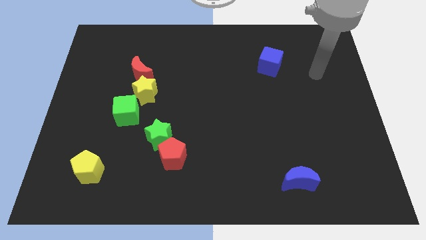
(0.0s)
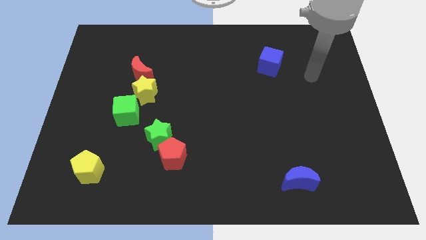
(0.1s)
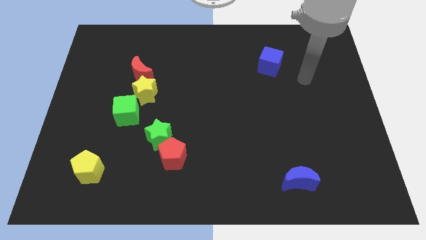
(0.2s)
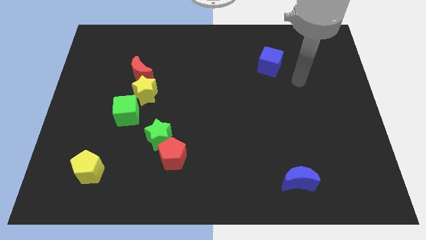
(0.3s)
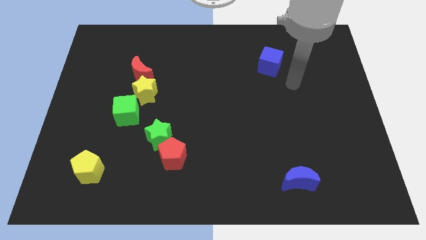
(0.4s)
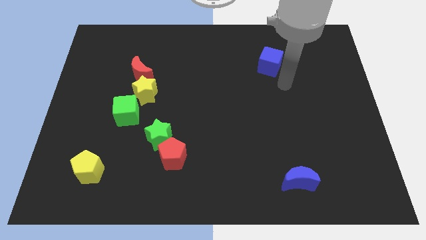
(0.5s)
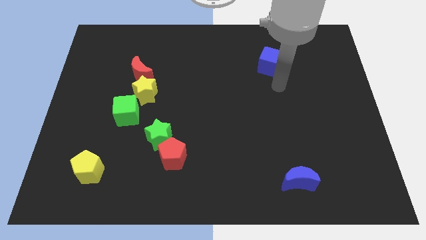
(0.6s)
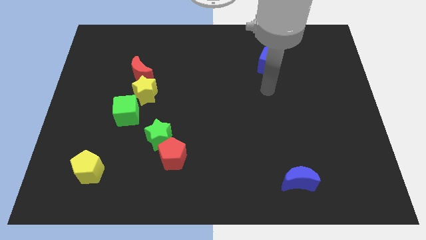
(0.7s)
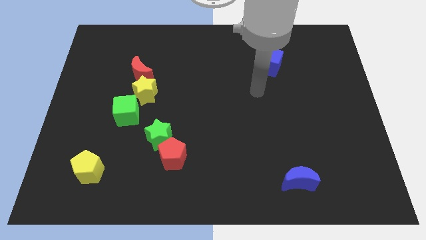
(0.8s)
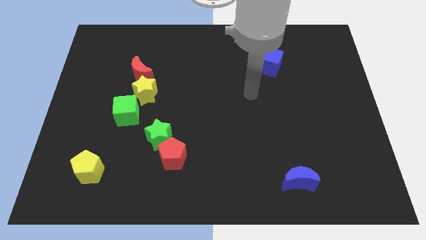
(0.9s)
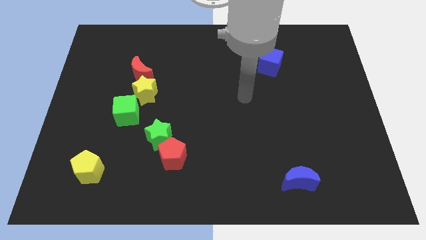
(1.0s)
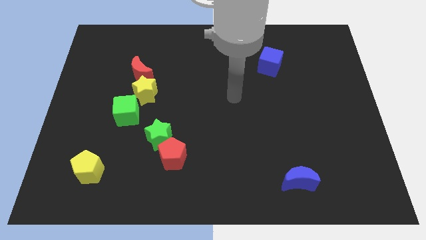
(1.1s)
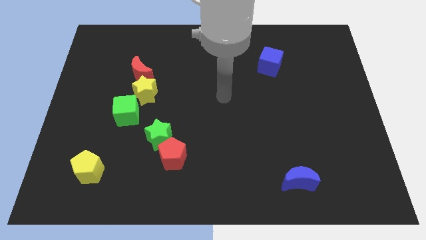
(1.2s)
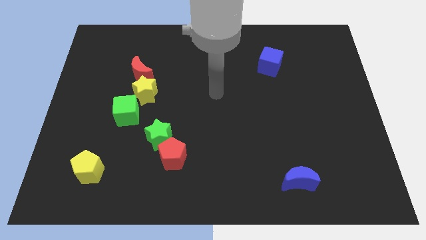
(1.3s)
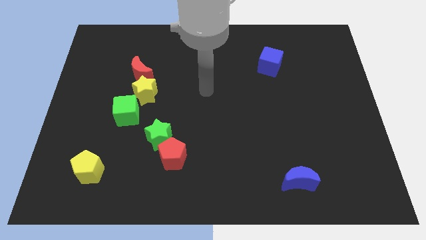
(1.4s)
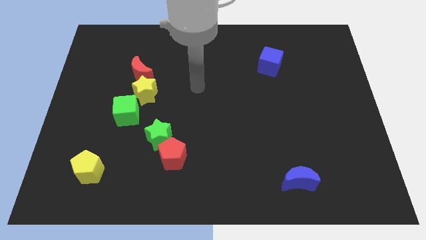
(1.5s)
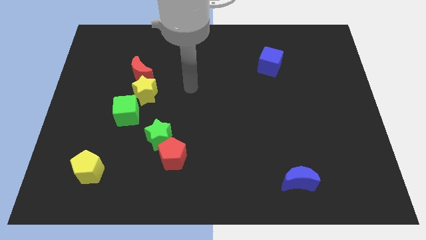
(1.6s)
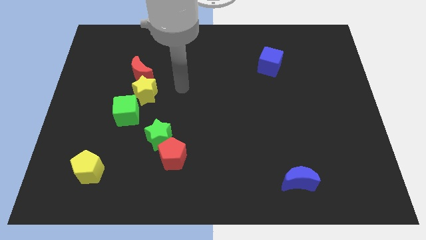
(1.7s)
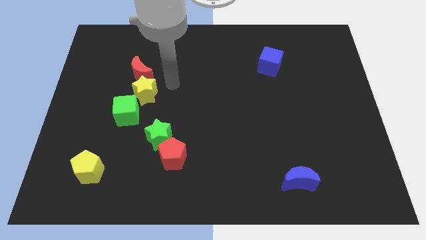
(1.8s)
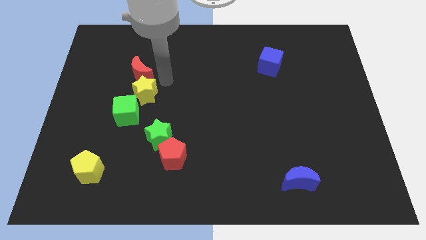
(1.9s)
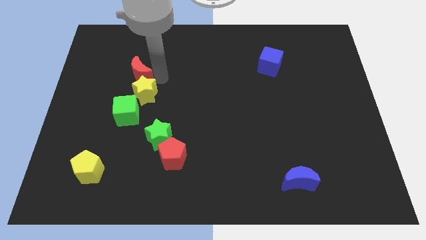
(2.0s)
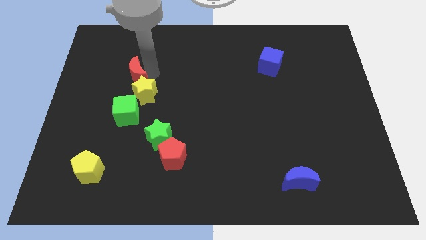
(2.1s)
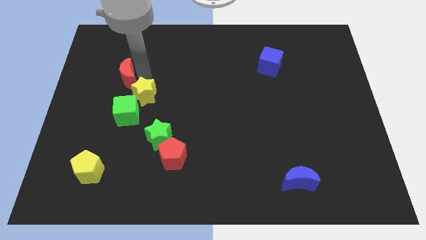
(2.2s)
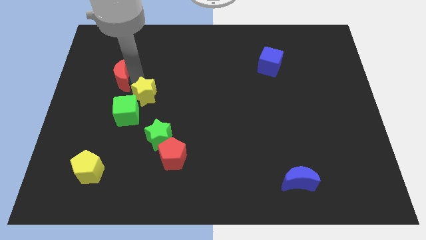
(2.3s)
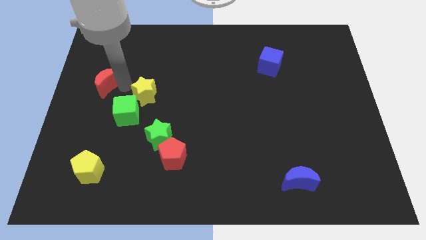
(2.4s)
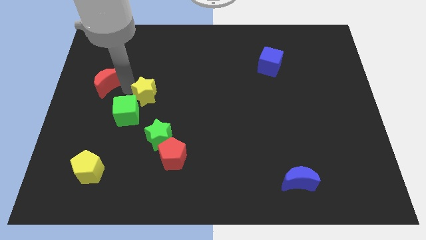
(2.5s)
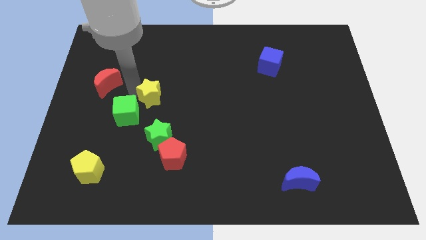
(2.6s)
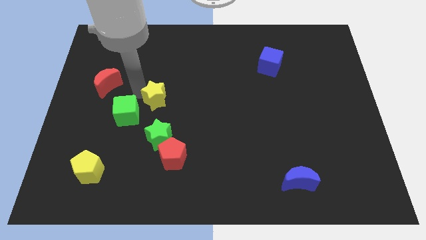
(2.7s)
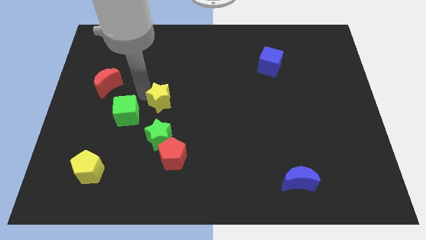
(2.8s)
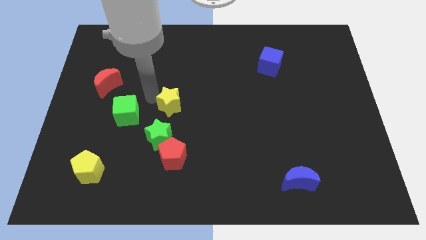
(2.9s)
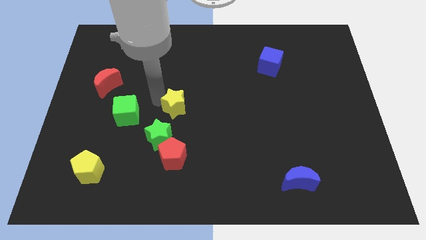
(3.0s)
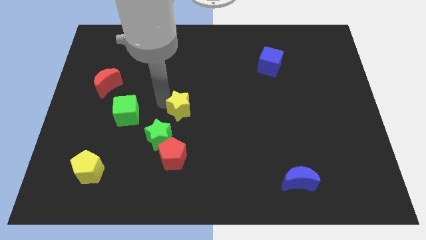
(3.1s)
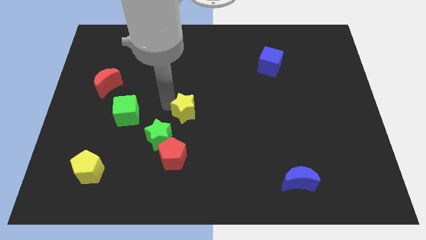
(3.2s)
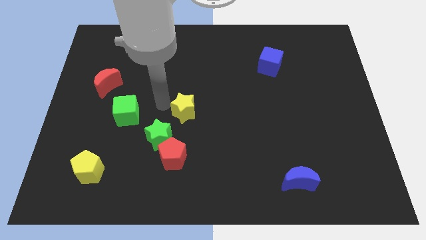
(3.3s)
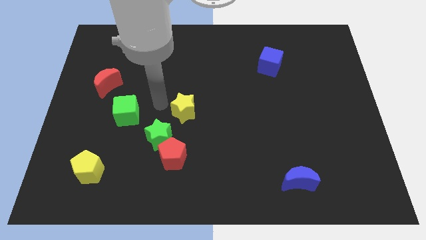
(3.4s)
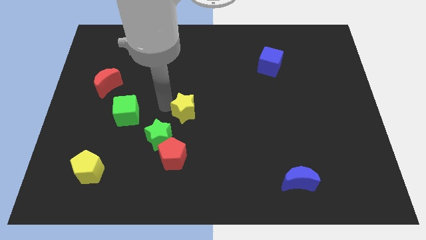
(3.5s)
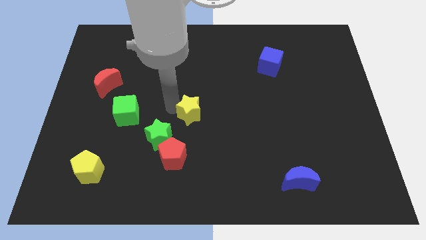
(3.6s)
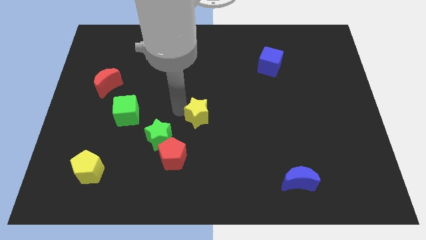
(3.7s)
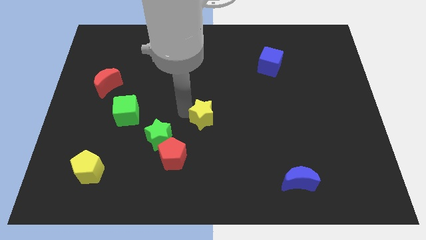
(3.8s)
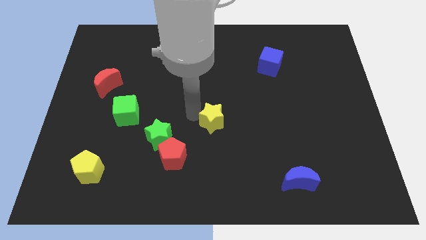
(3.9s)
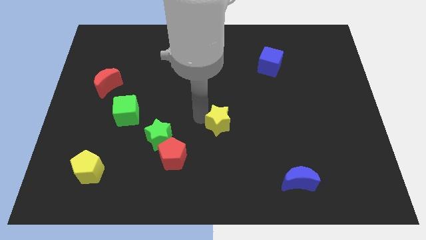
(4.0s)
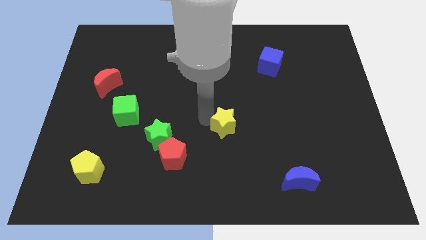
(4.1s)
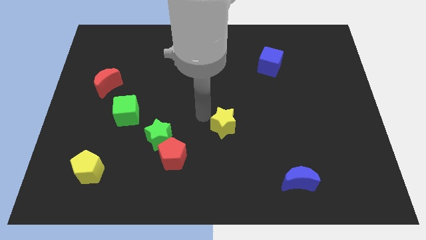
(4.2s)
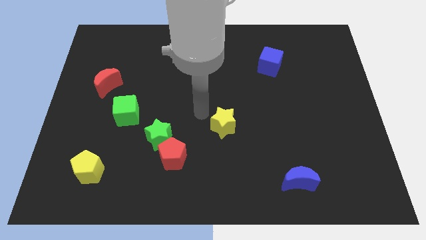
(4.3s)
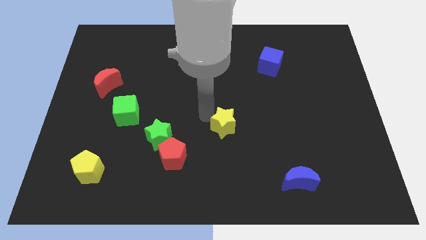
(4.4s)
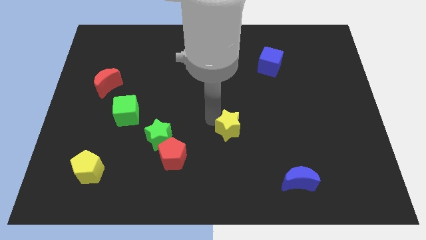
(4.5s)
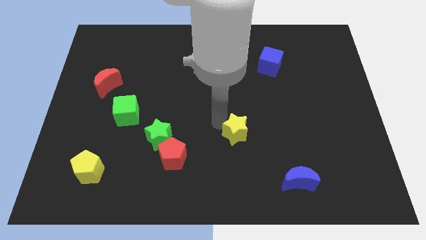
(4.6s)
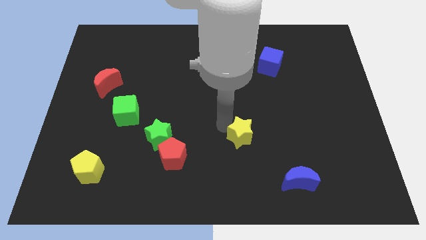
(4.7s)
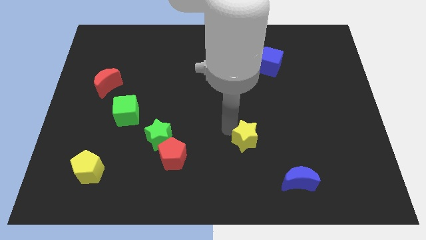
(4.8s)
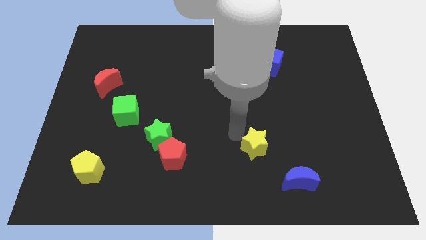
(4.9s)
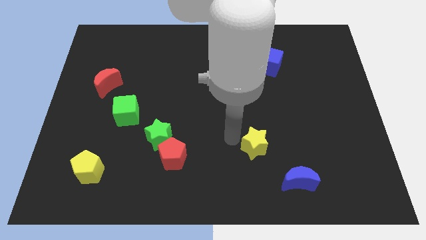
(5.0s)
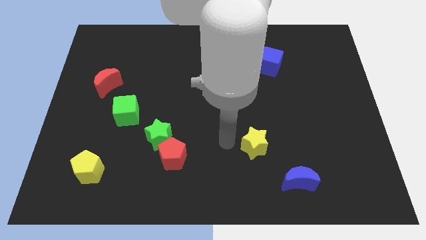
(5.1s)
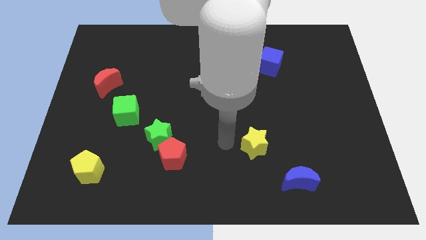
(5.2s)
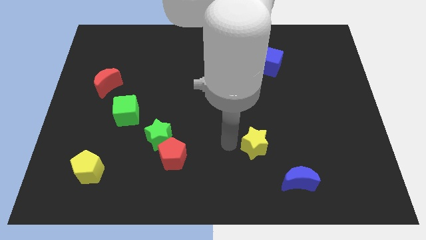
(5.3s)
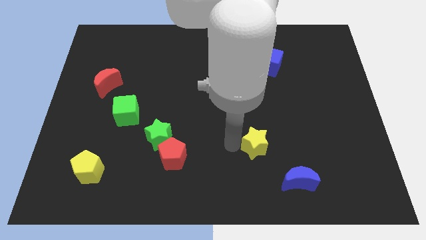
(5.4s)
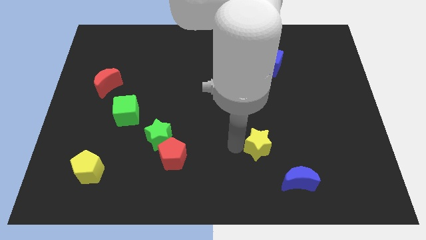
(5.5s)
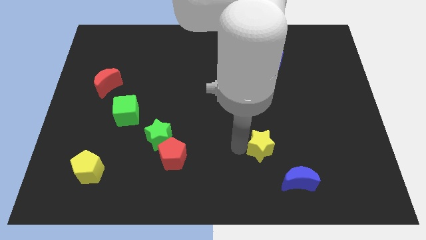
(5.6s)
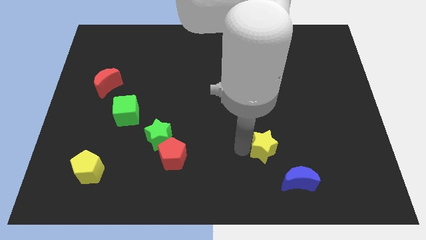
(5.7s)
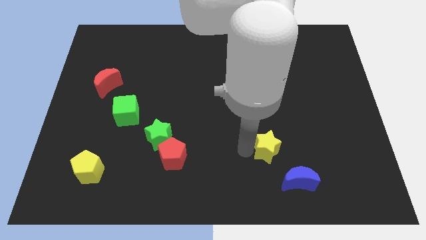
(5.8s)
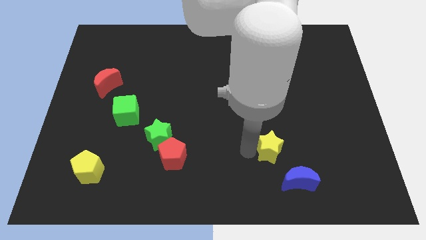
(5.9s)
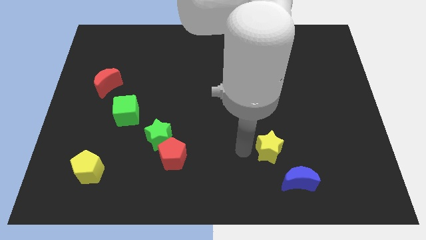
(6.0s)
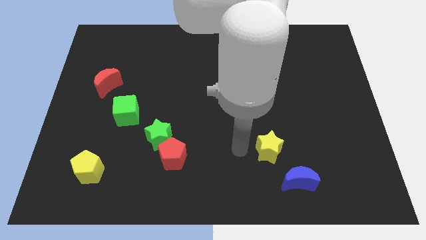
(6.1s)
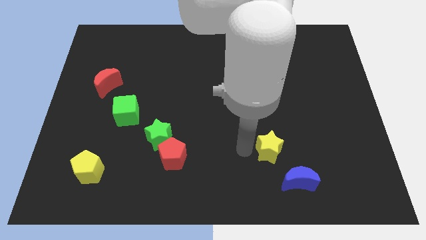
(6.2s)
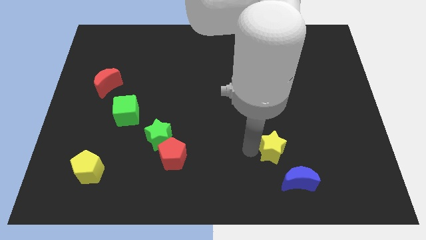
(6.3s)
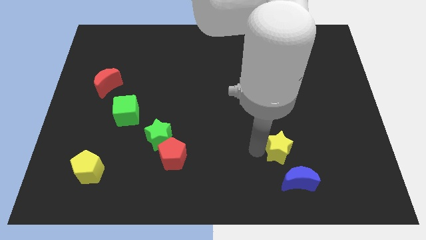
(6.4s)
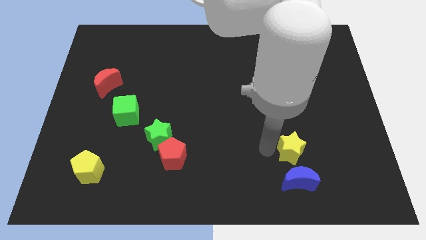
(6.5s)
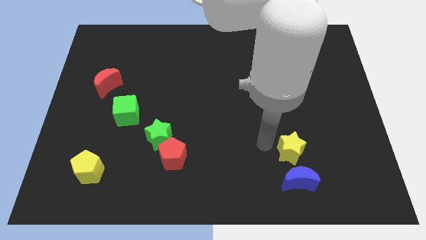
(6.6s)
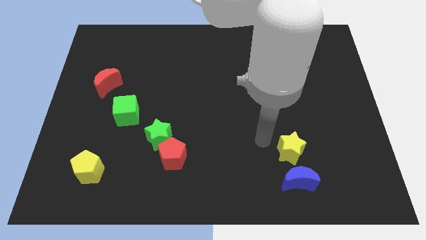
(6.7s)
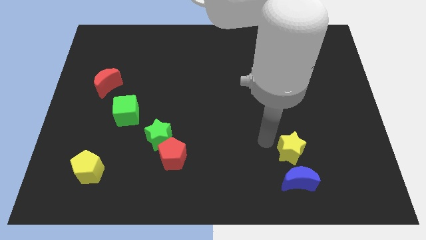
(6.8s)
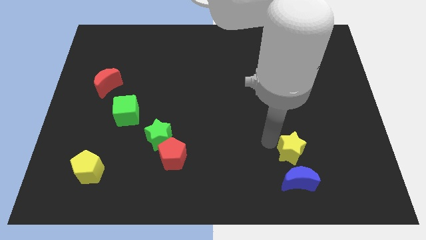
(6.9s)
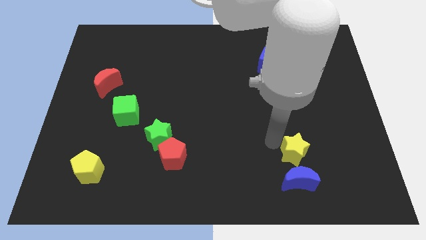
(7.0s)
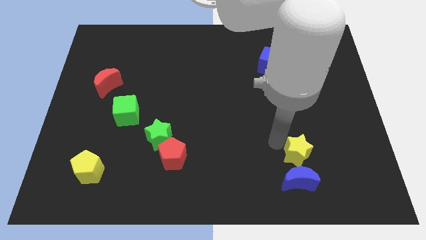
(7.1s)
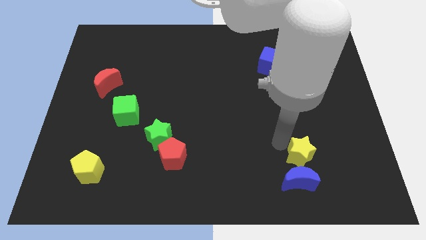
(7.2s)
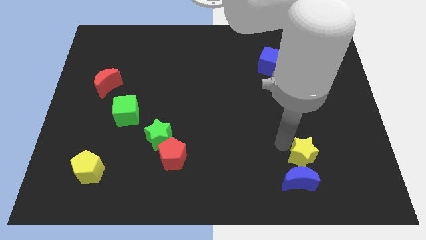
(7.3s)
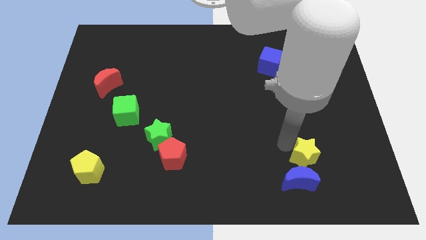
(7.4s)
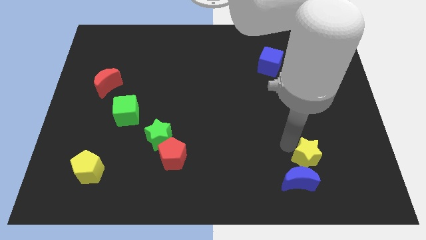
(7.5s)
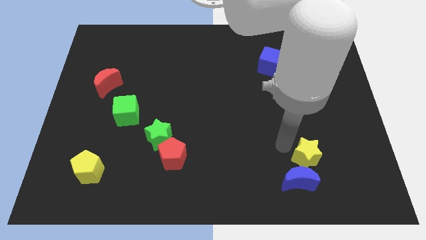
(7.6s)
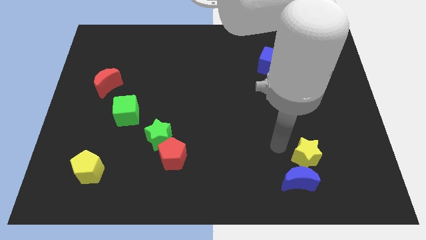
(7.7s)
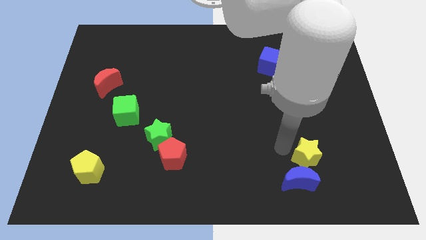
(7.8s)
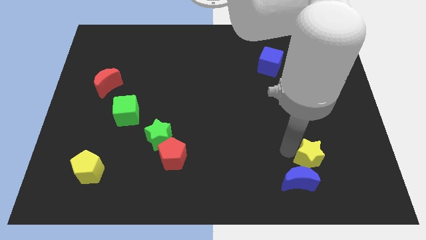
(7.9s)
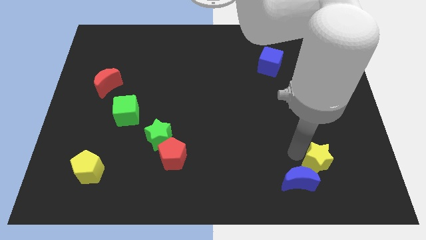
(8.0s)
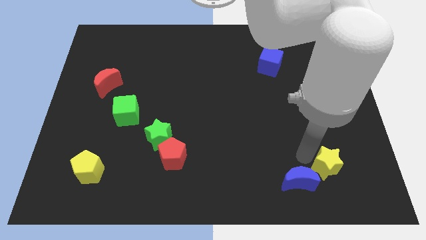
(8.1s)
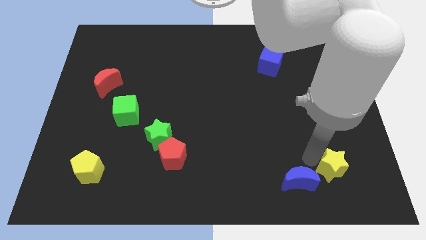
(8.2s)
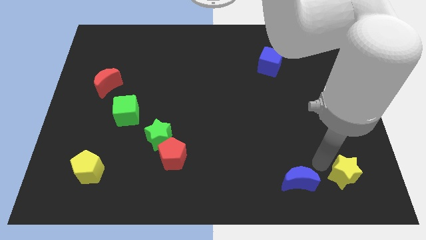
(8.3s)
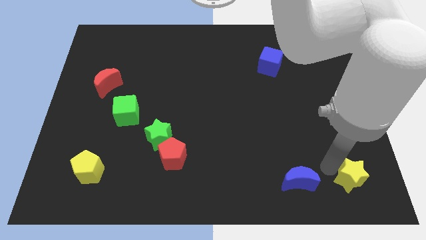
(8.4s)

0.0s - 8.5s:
slide the yellow star to the bottom right
